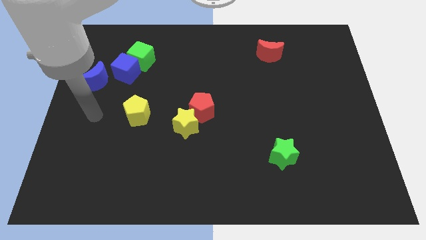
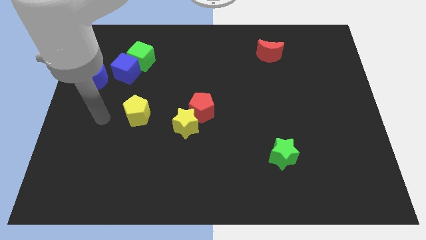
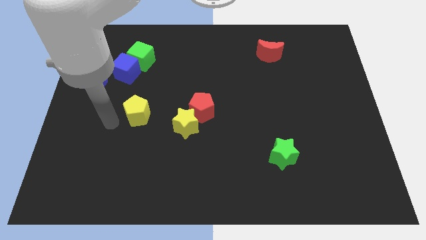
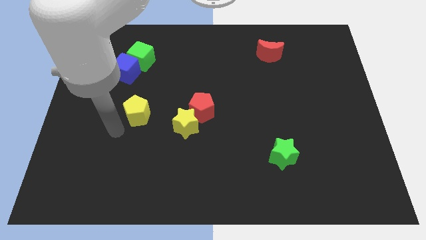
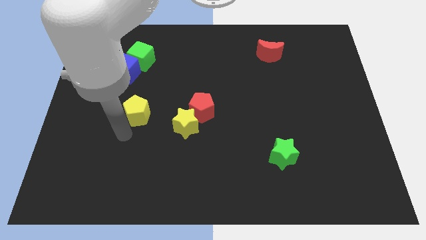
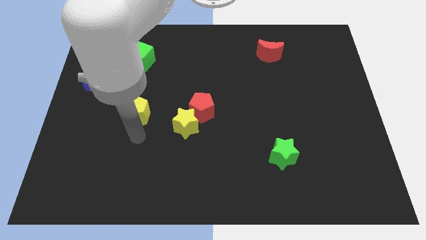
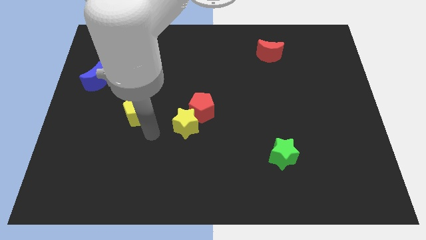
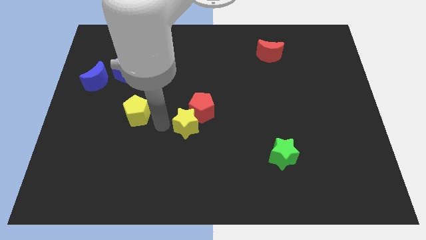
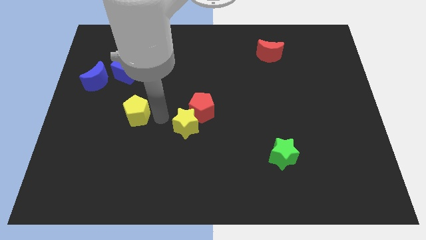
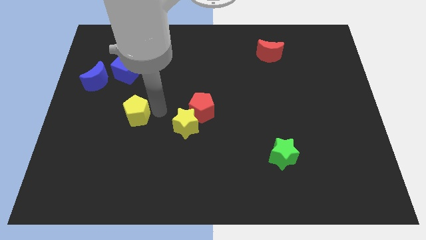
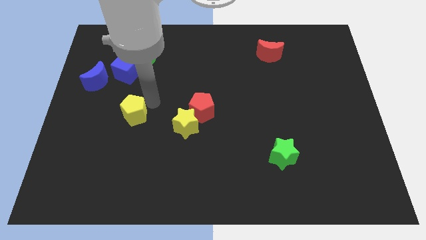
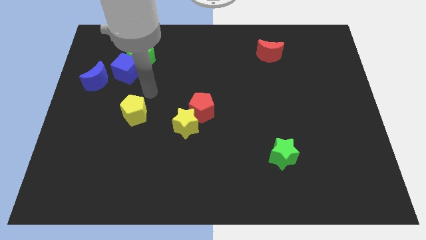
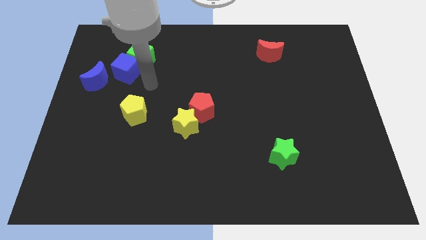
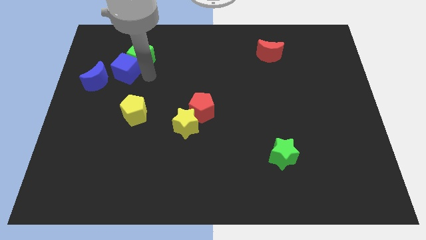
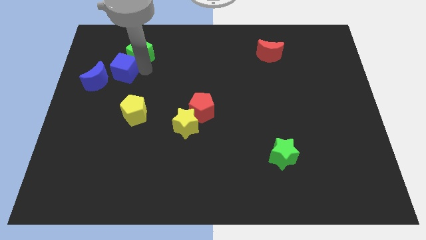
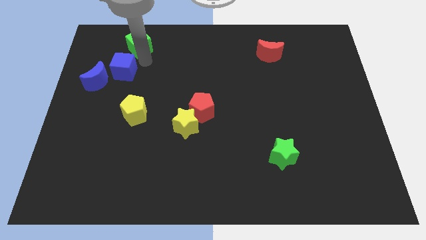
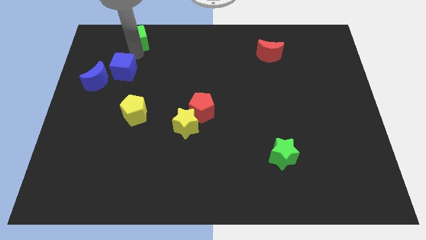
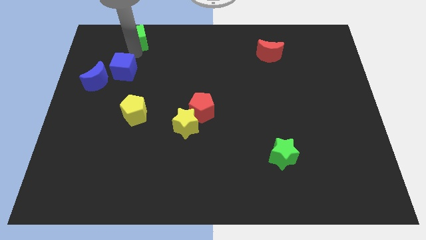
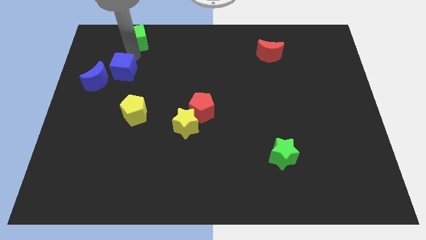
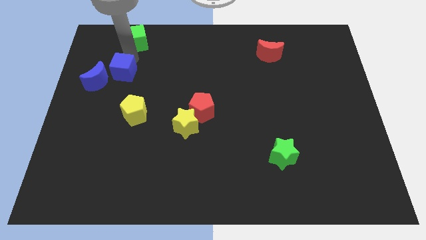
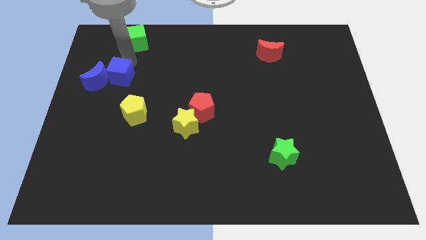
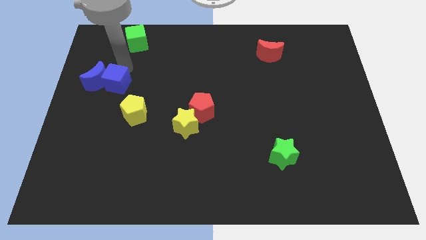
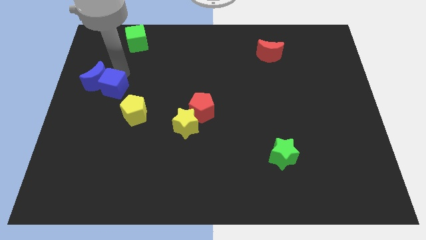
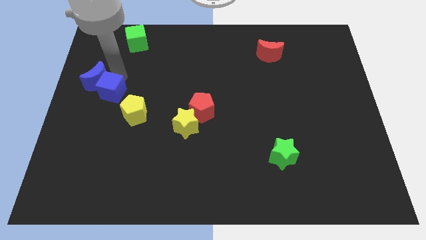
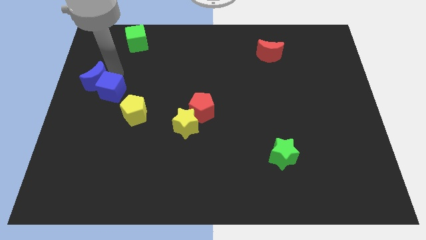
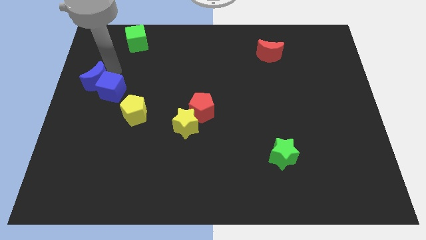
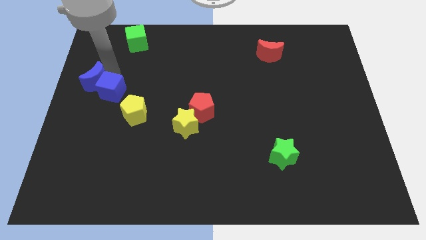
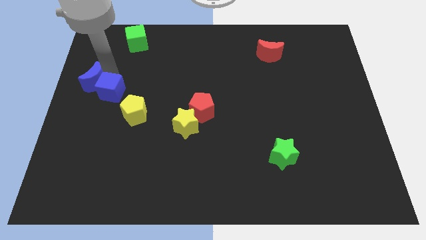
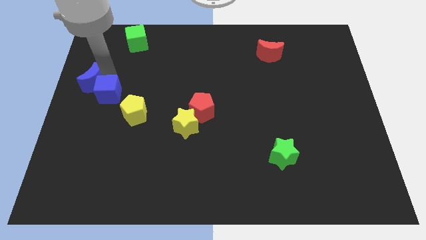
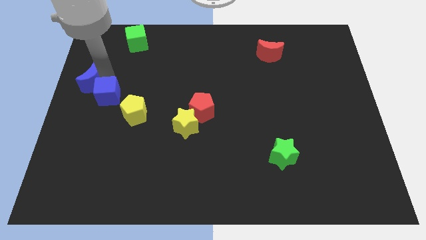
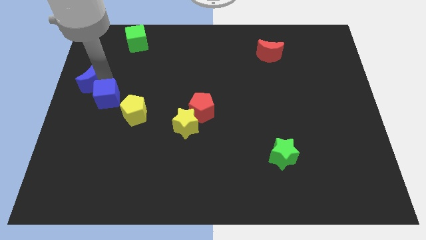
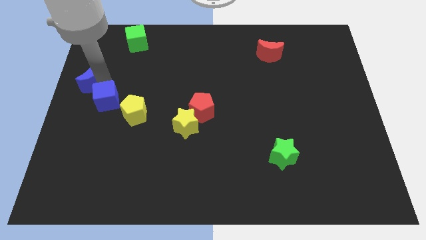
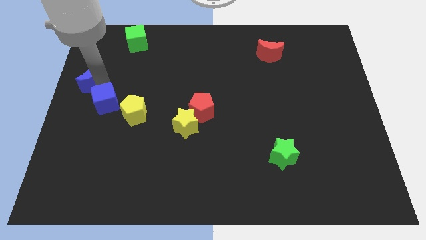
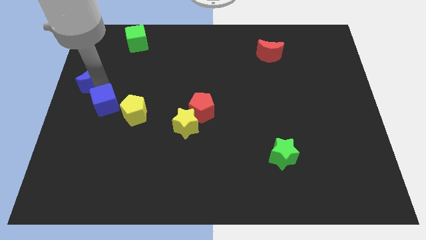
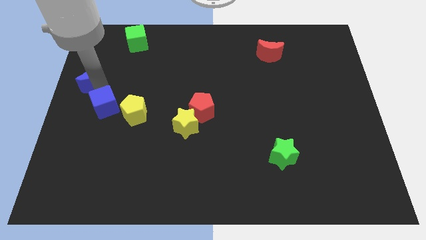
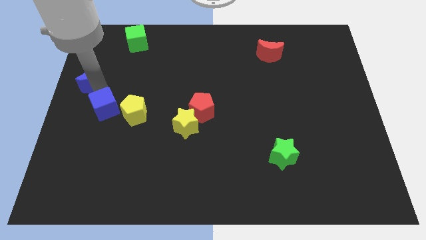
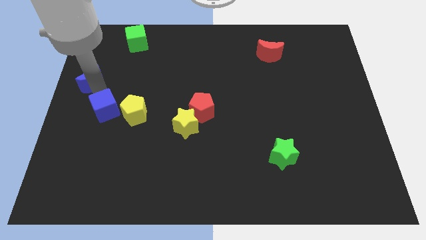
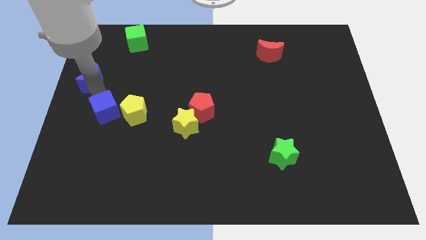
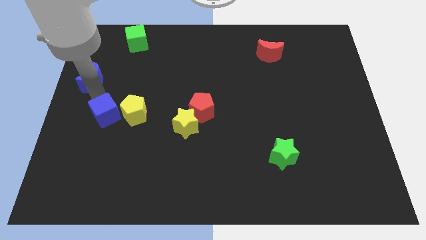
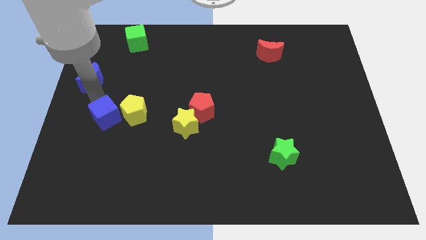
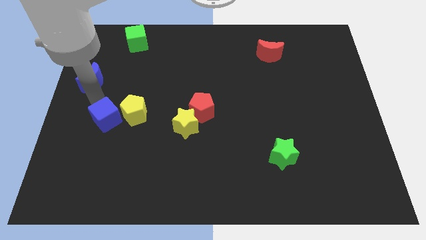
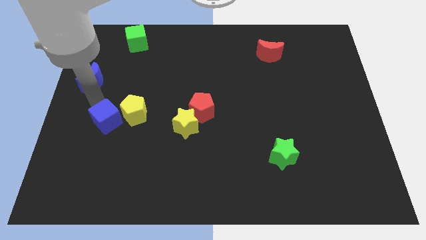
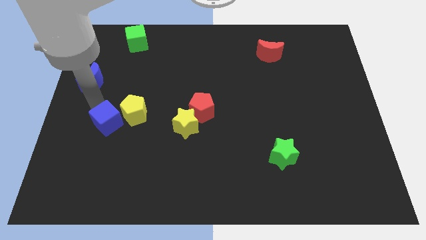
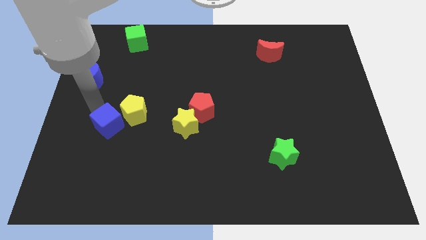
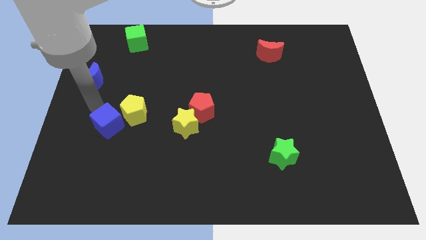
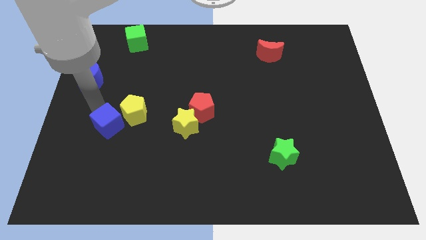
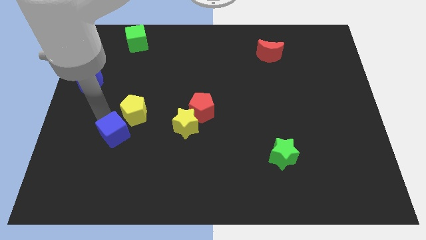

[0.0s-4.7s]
put the blue cube below the yellow pentagon

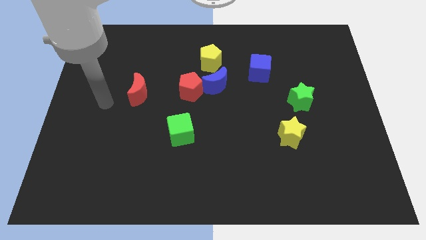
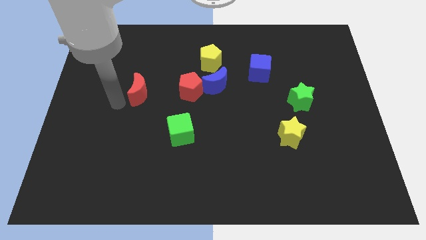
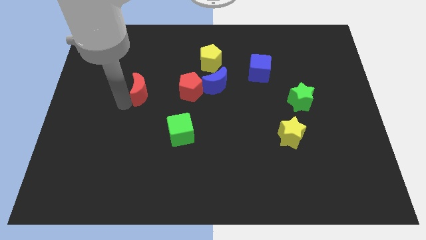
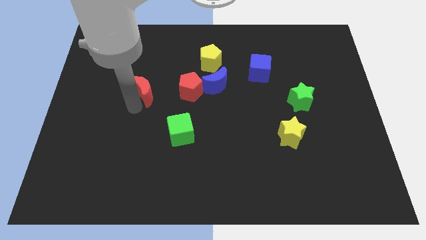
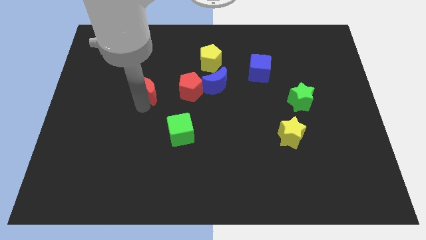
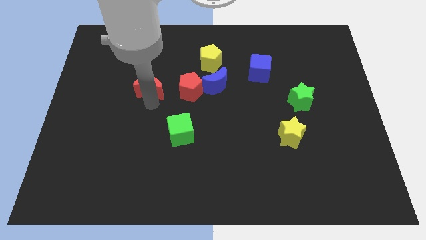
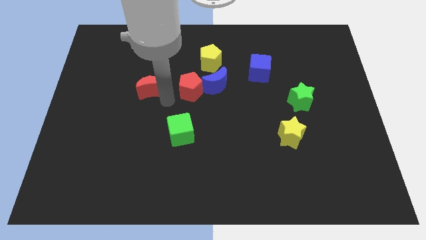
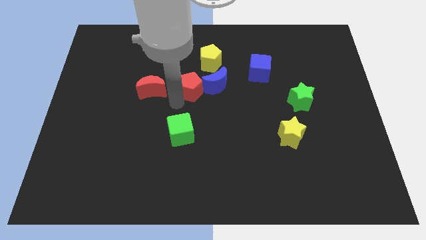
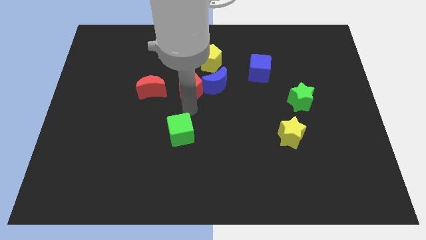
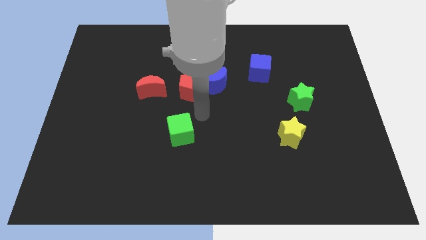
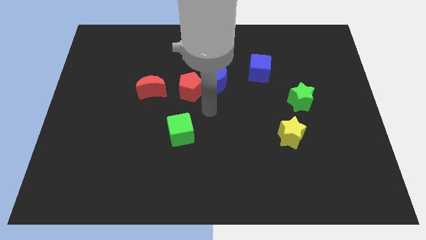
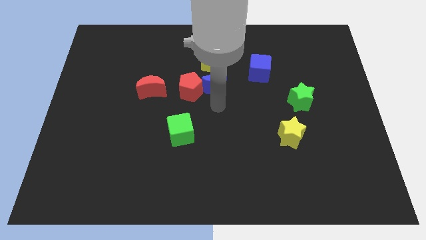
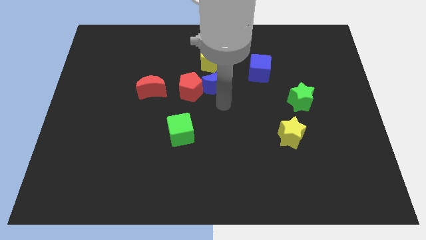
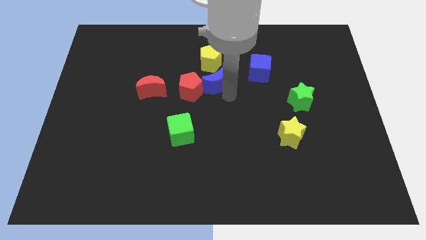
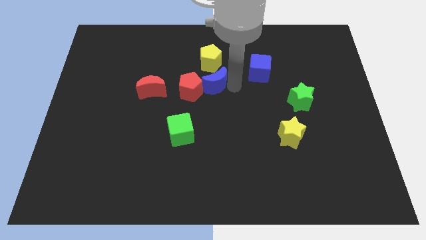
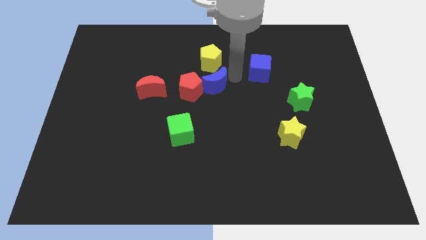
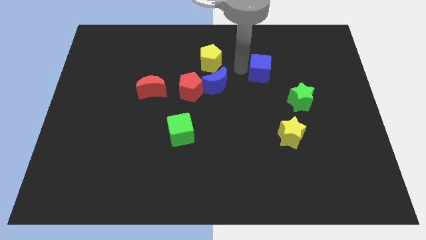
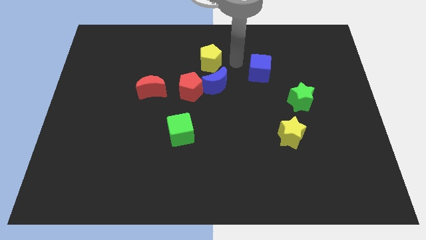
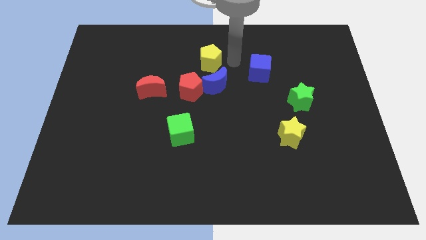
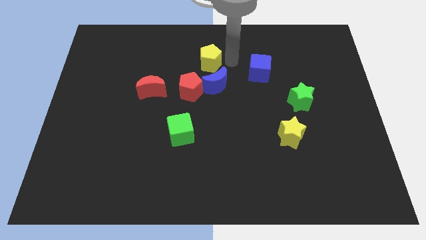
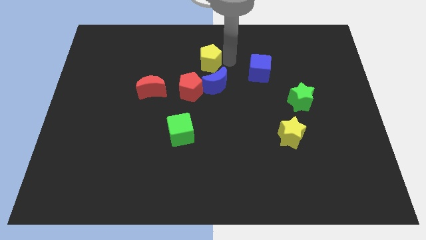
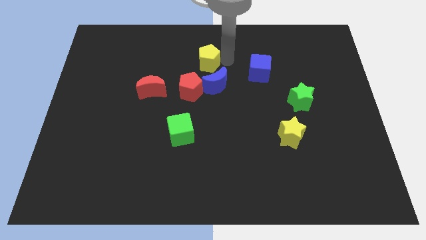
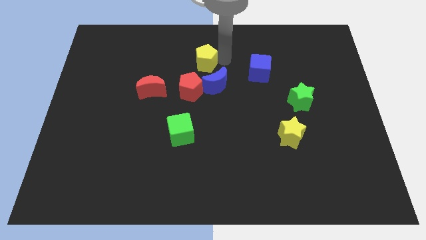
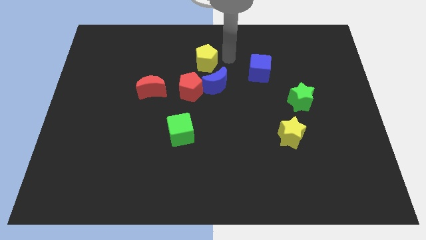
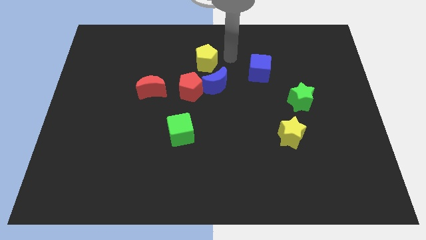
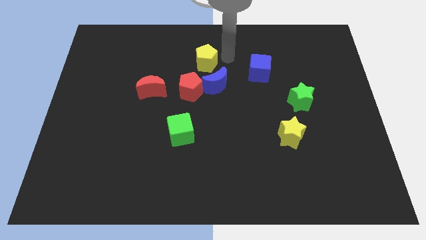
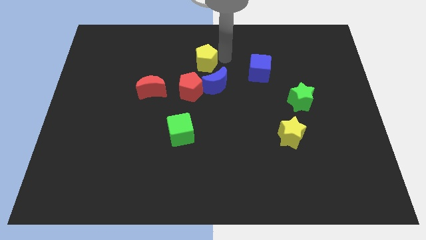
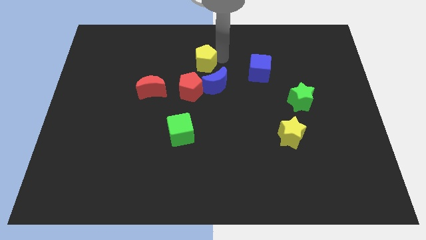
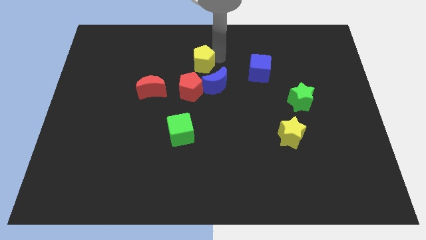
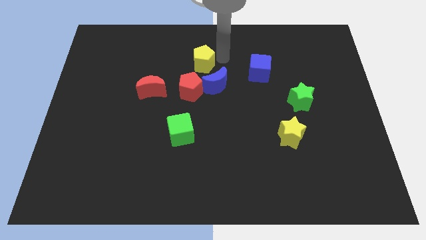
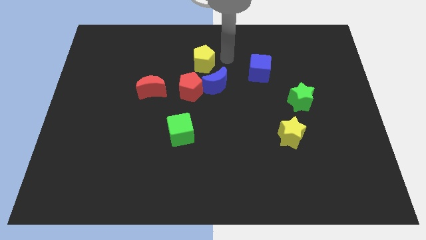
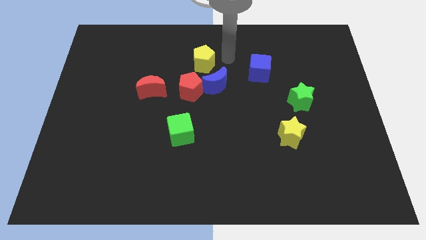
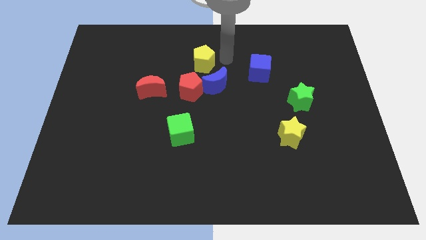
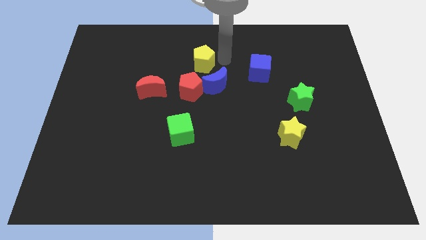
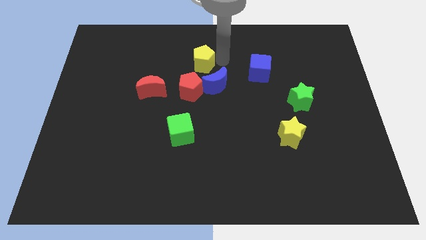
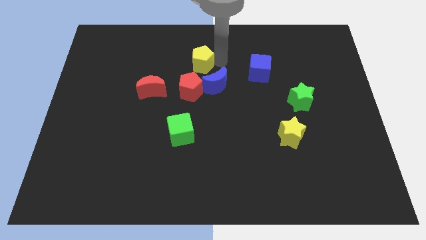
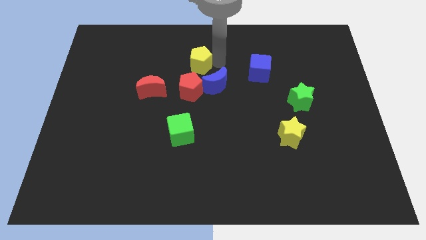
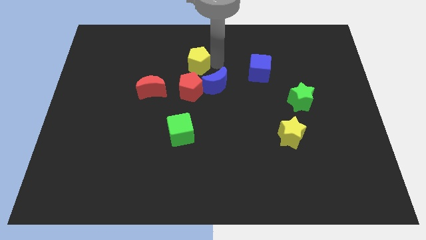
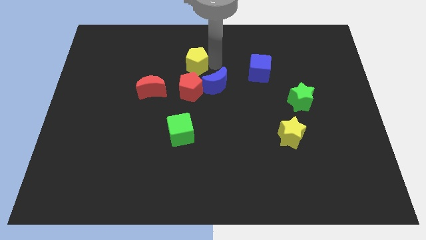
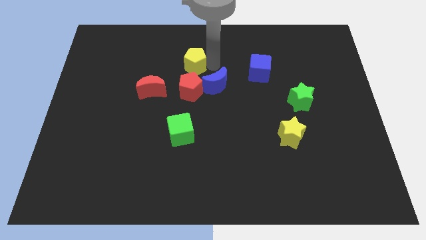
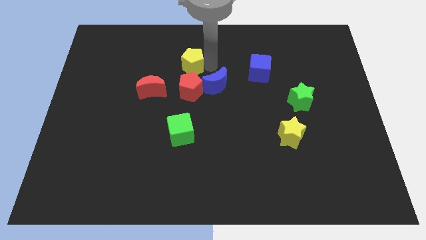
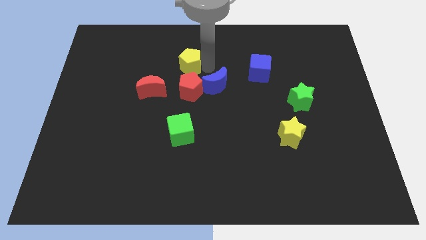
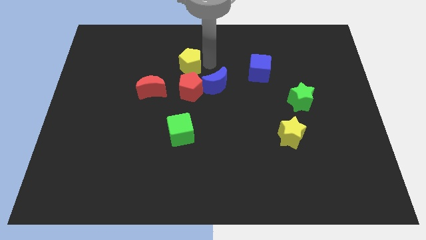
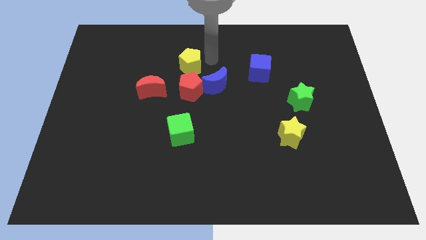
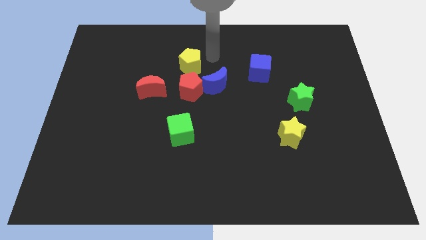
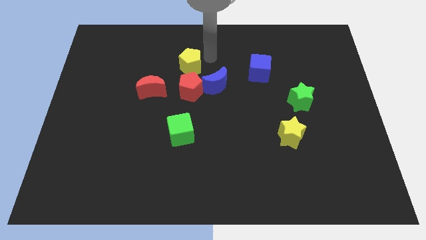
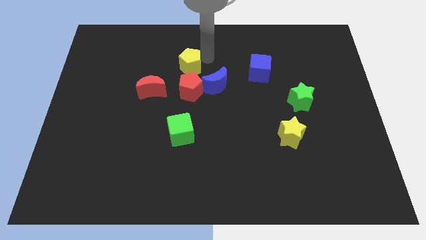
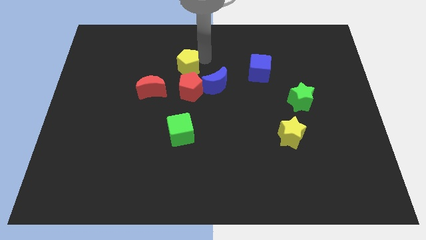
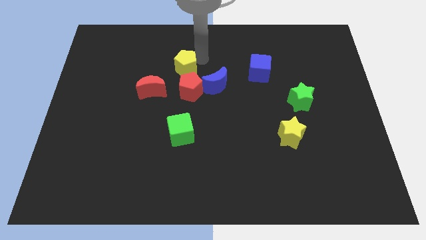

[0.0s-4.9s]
put the yellow pentagon to the top left side of the red pentagon
